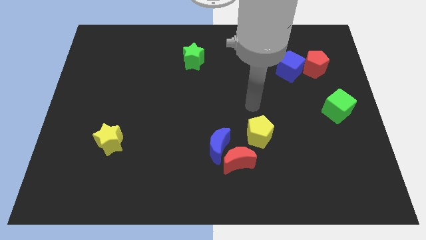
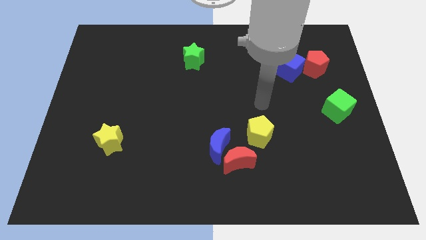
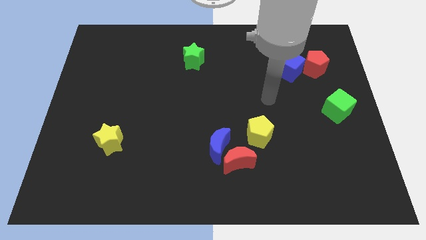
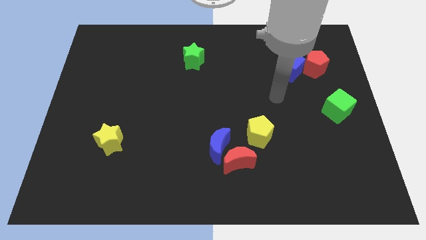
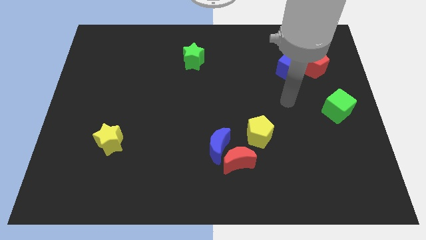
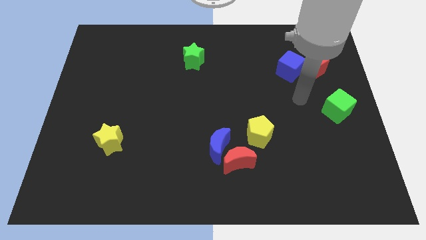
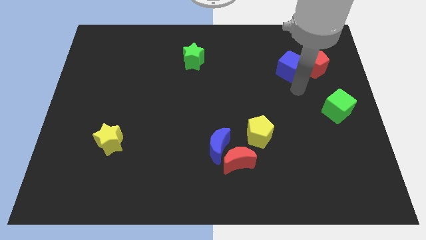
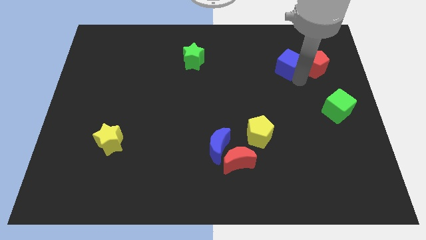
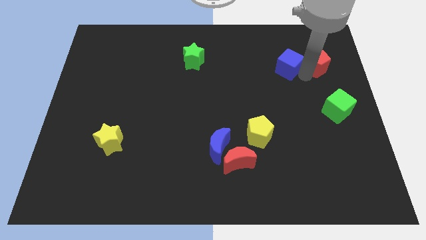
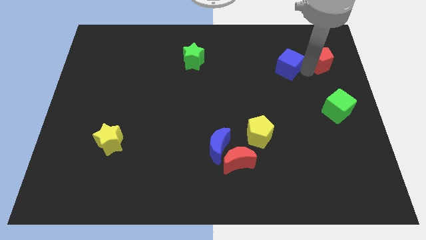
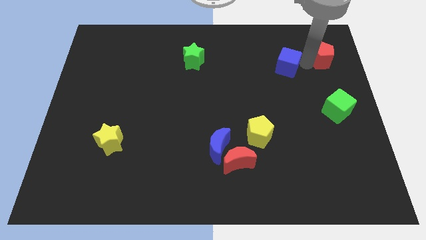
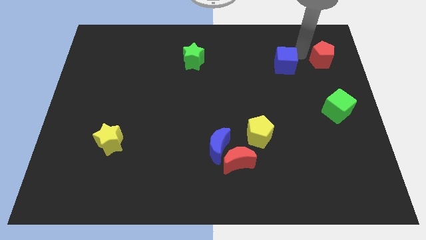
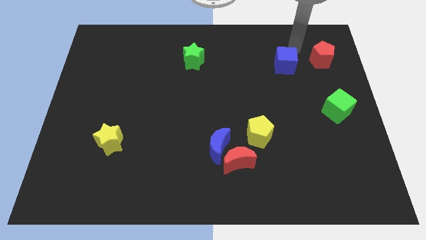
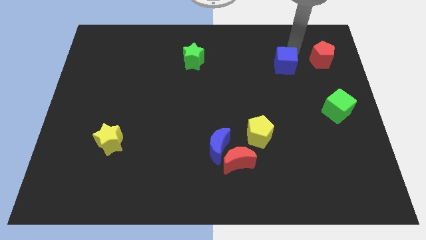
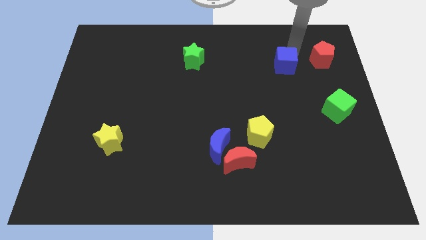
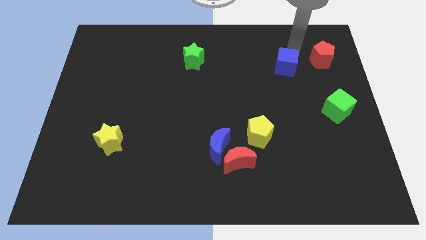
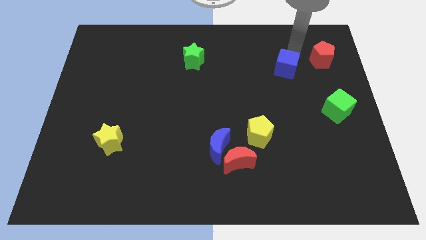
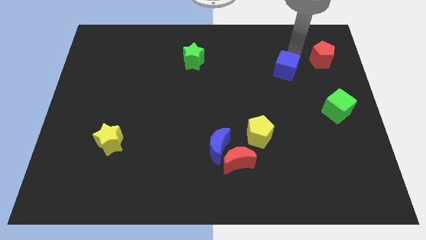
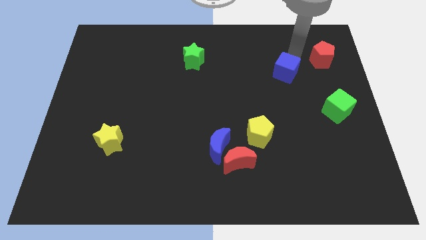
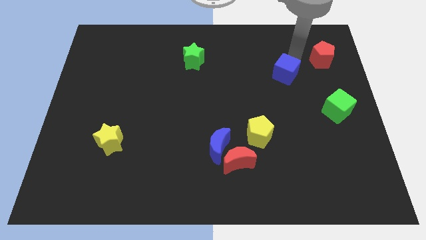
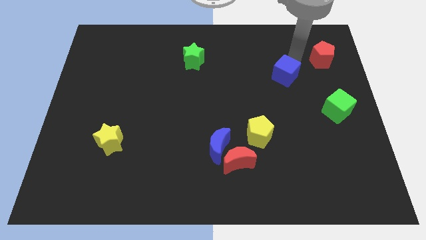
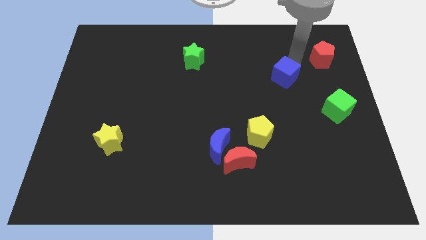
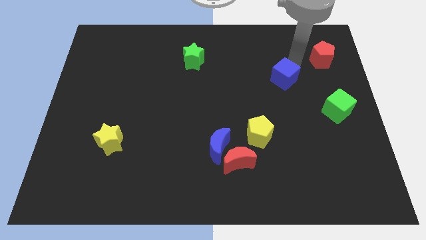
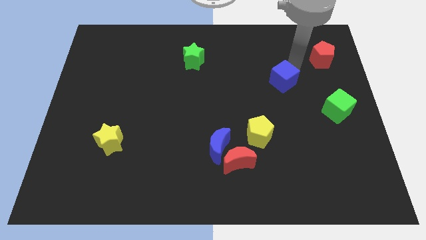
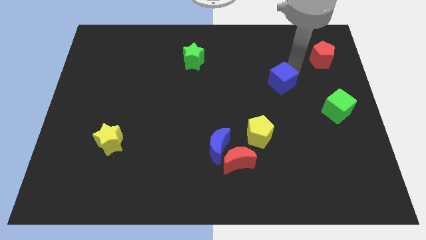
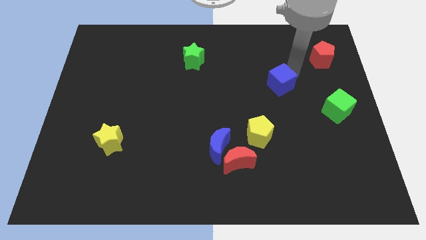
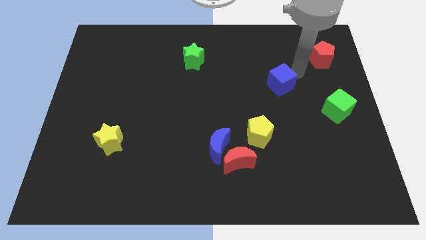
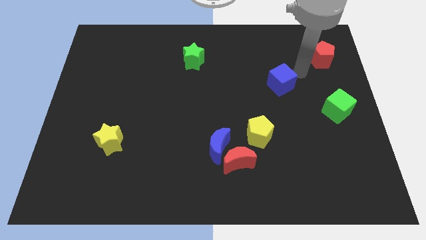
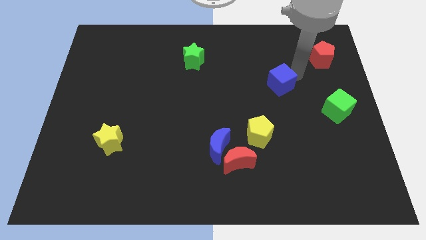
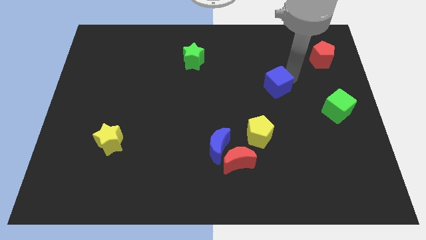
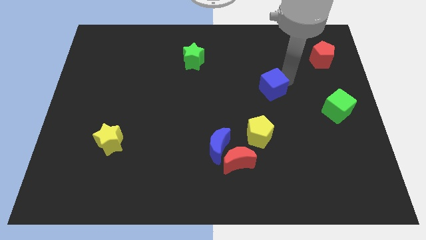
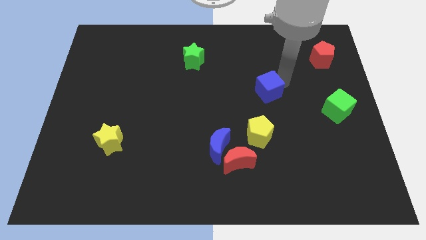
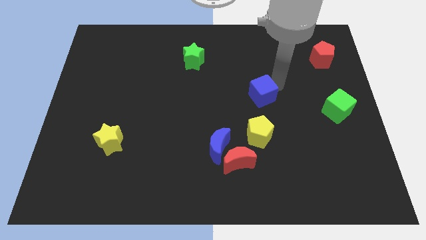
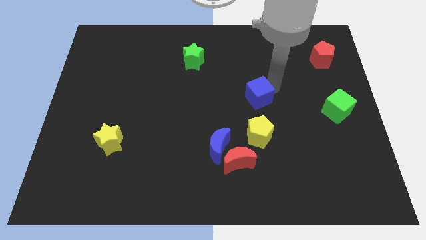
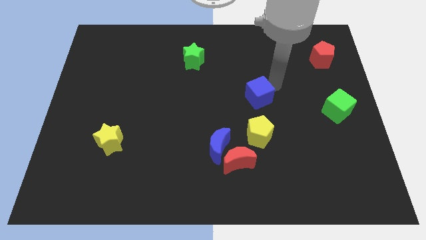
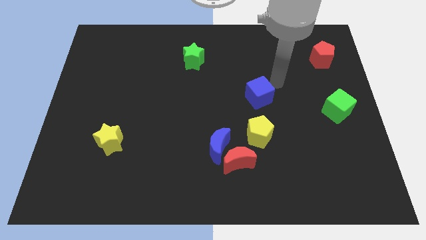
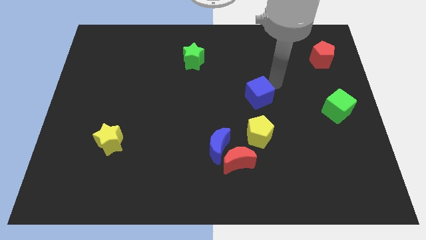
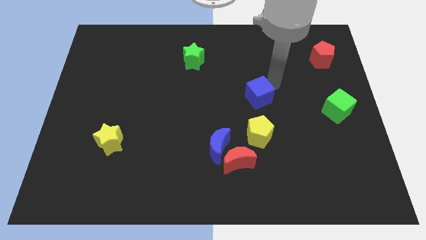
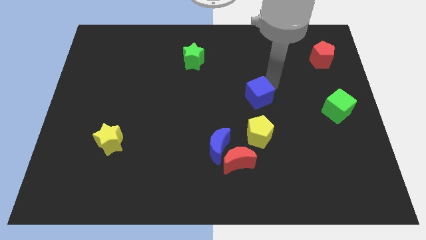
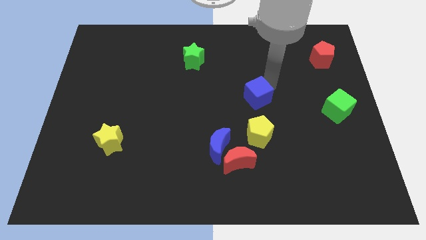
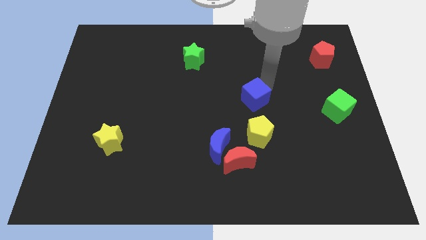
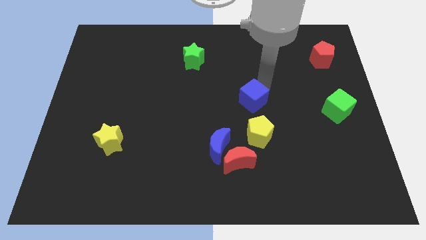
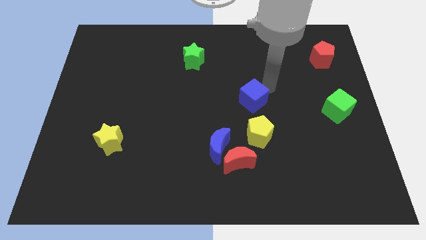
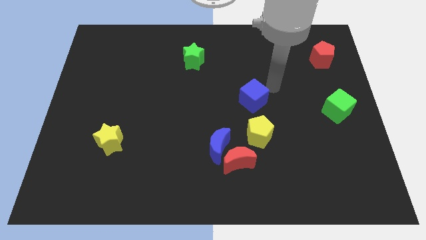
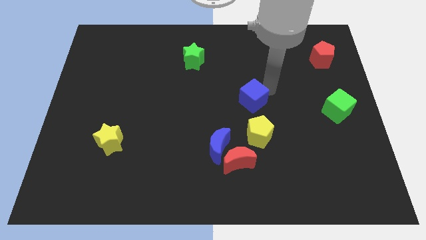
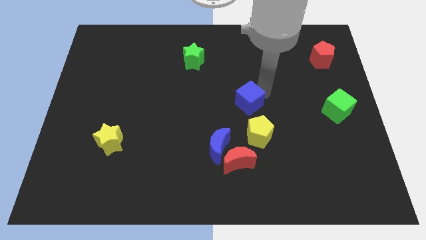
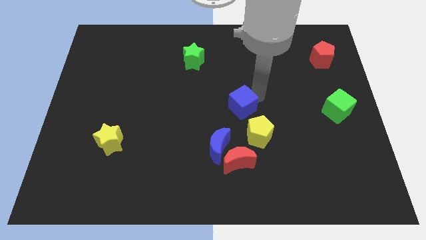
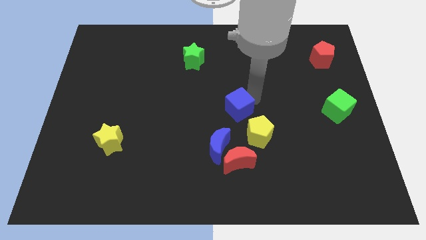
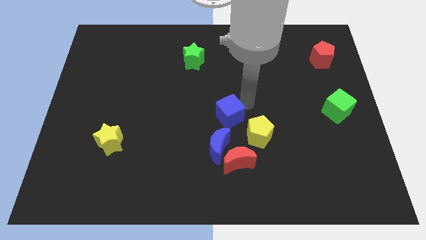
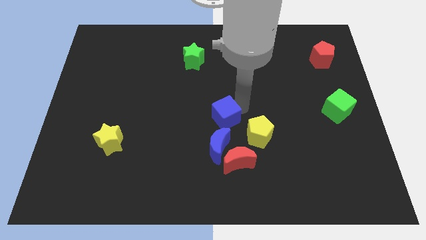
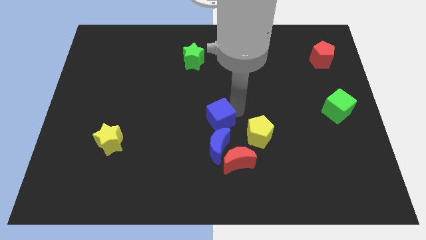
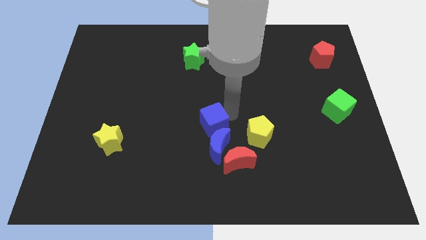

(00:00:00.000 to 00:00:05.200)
move the blue cube to the top left of the blue moon

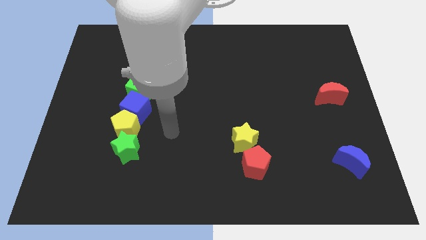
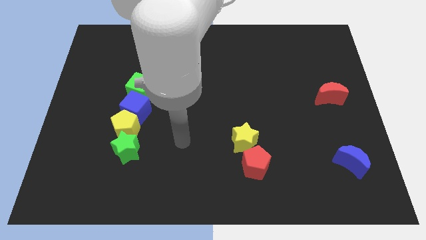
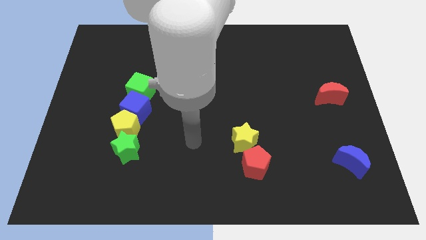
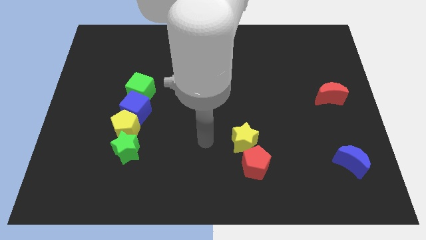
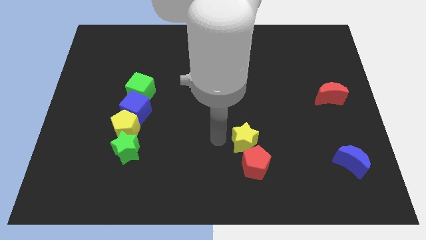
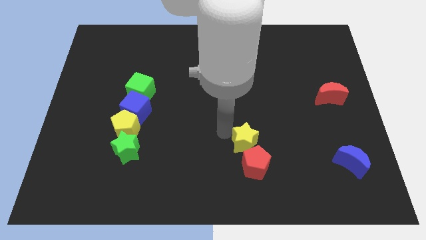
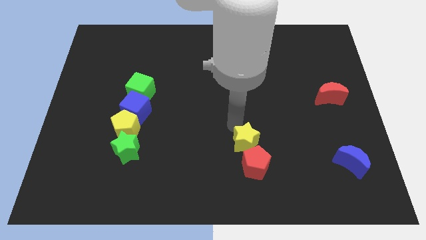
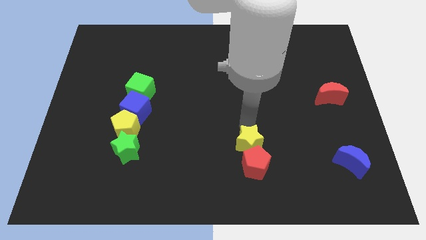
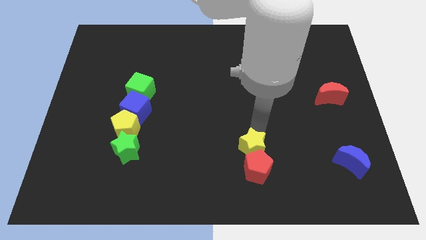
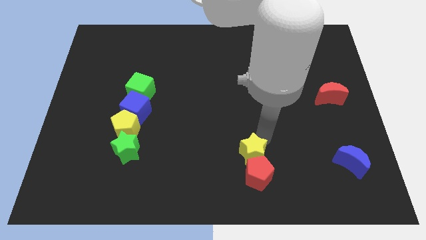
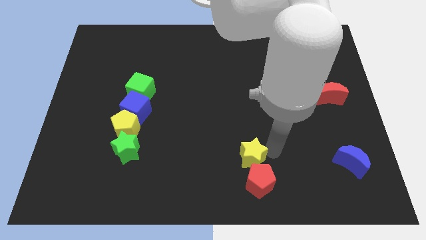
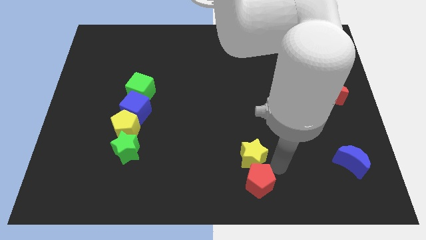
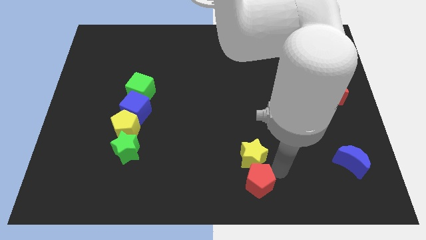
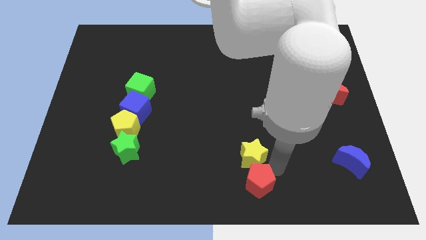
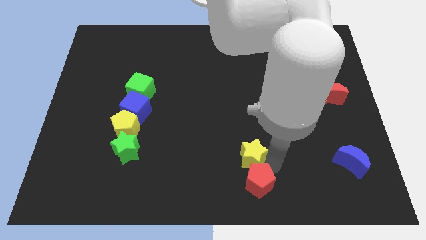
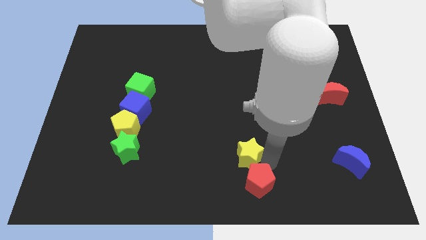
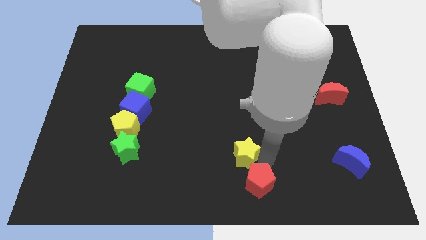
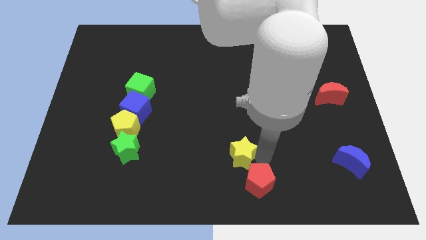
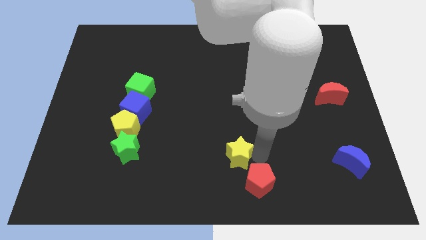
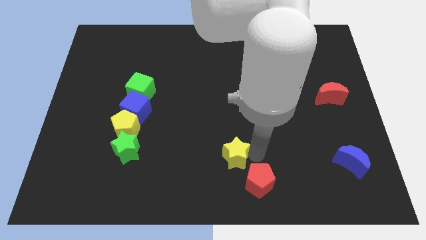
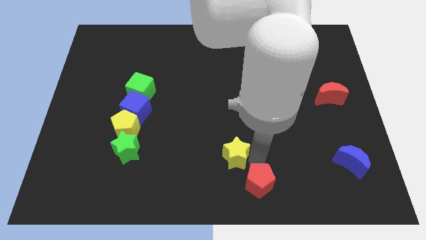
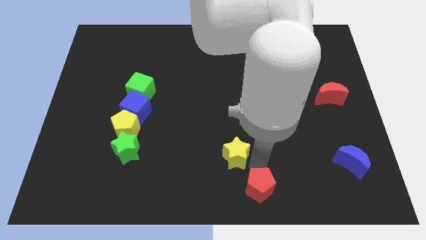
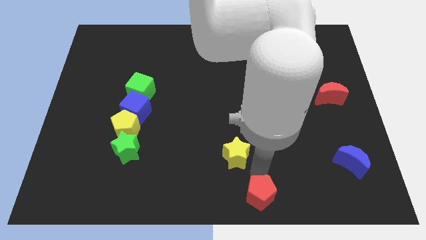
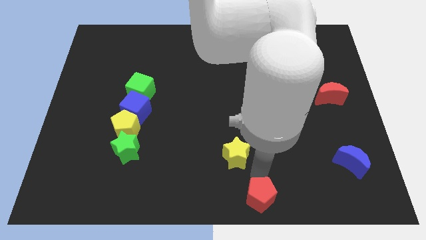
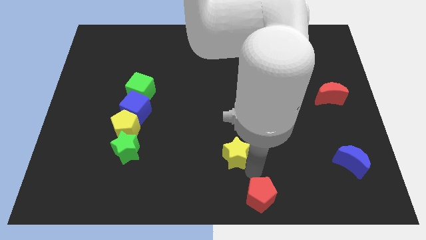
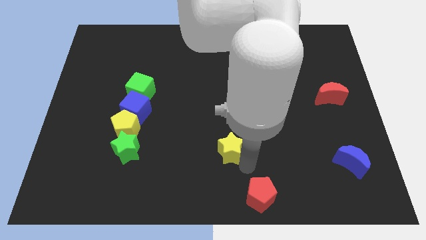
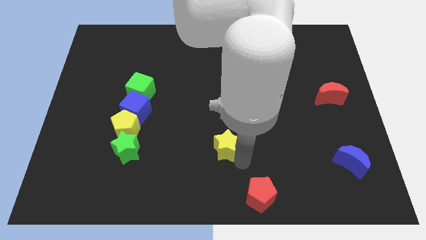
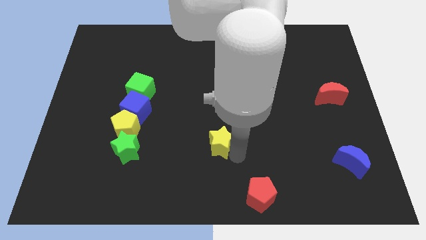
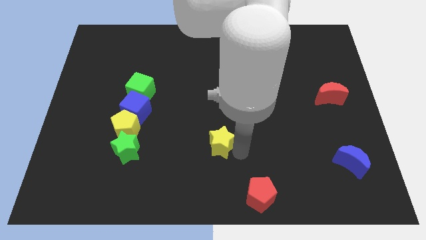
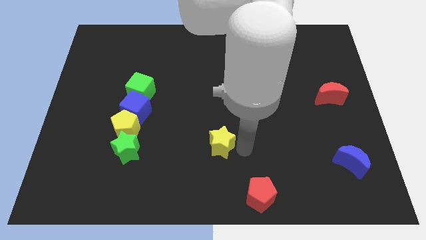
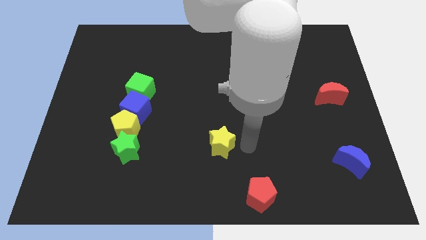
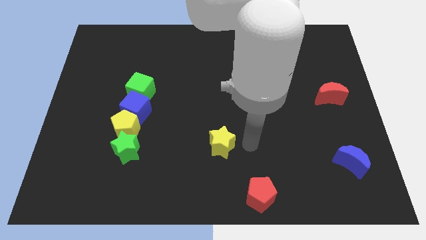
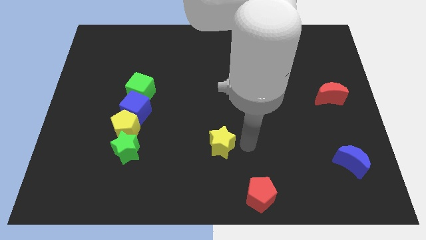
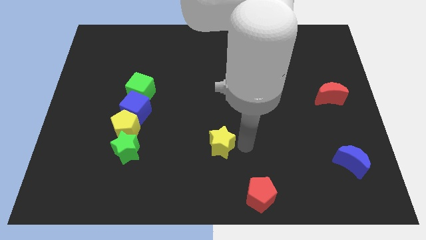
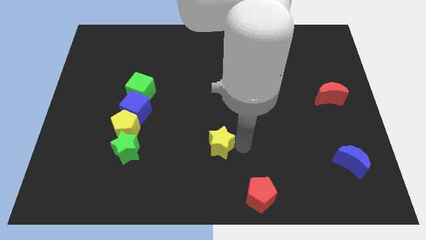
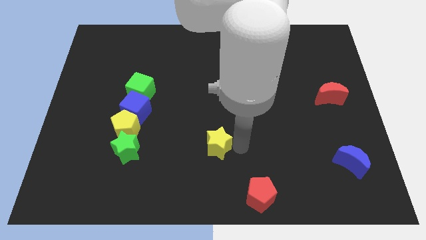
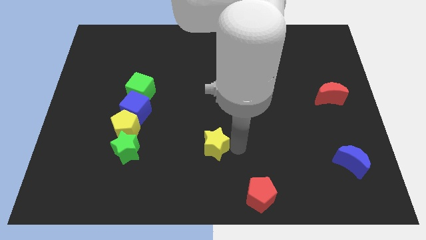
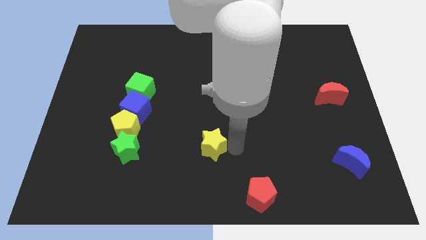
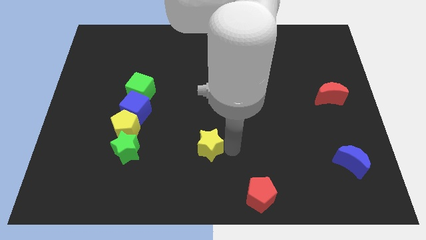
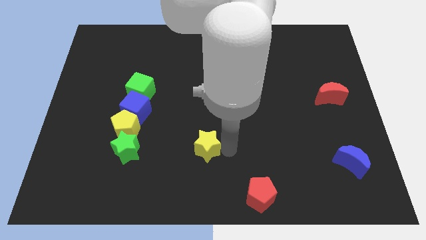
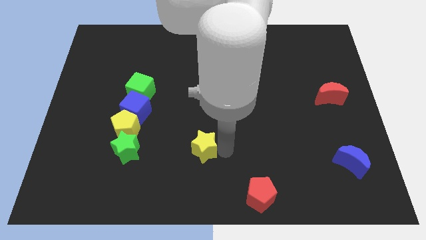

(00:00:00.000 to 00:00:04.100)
put the yellow star to the right of the green star
